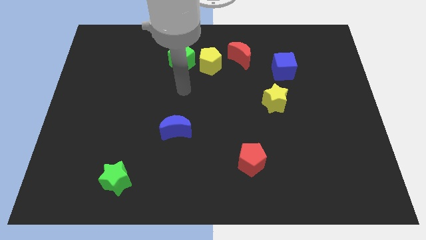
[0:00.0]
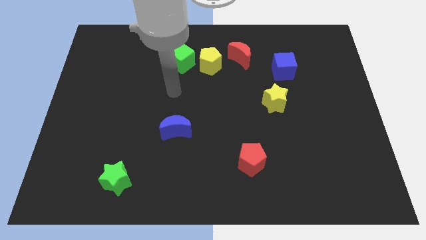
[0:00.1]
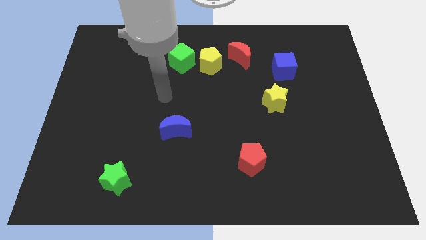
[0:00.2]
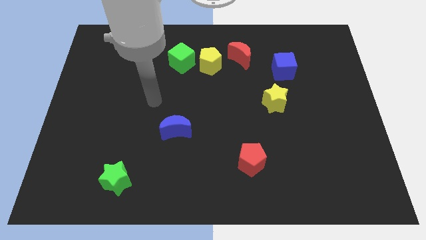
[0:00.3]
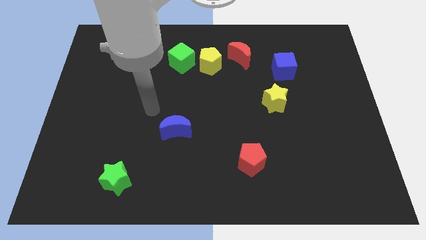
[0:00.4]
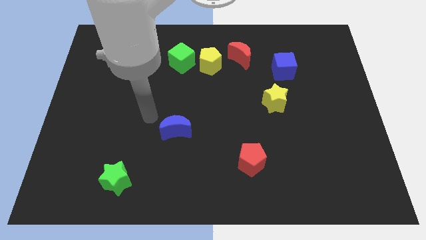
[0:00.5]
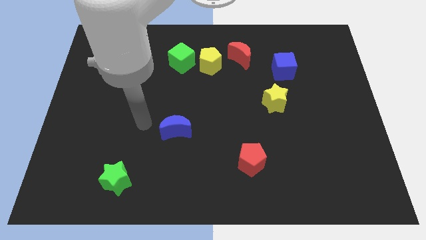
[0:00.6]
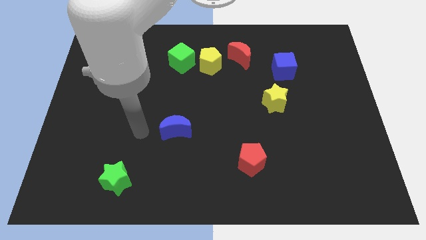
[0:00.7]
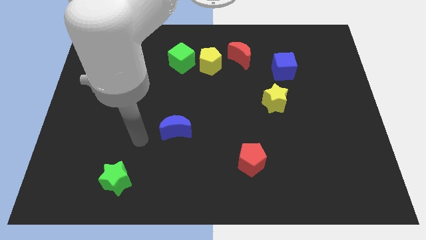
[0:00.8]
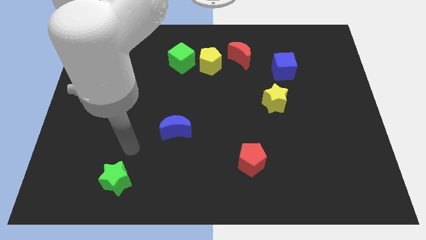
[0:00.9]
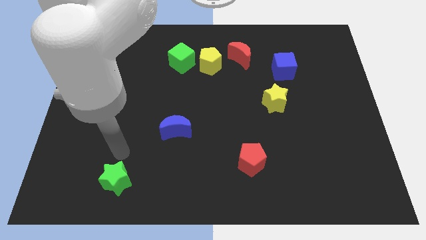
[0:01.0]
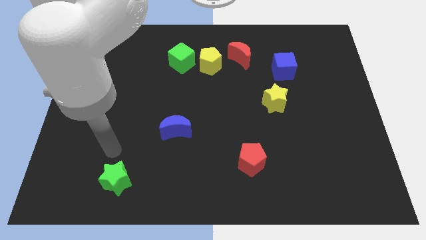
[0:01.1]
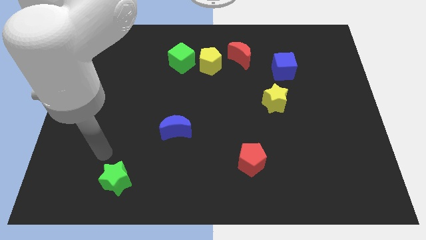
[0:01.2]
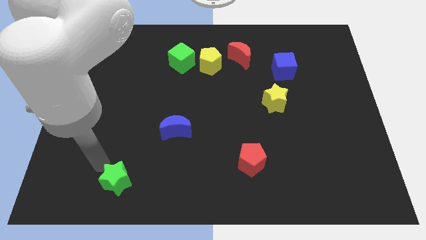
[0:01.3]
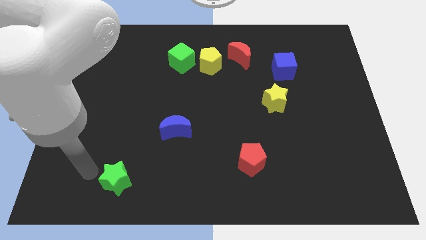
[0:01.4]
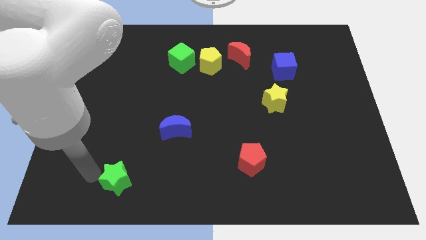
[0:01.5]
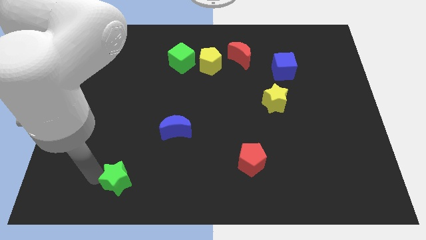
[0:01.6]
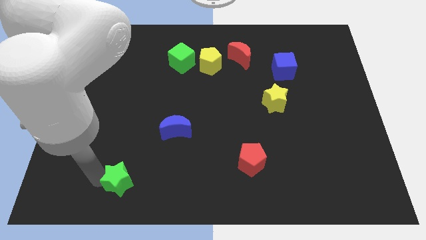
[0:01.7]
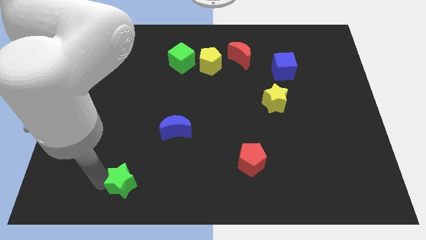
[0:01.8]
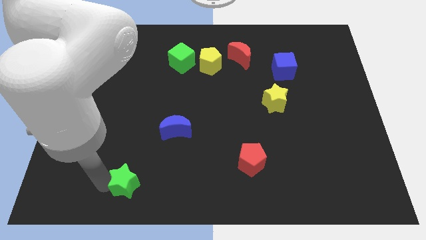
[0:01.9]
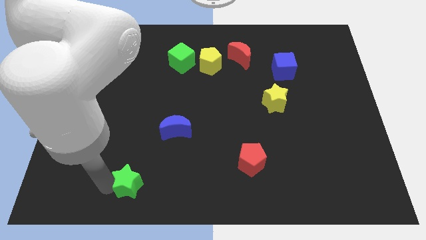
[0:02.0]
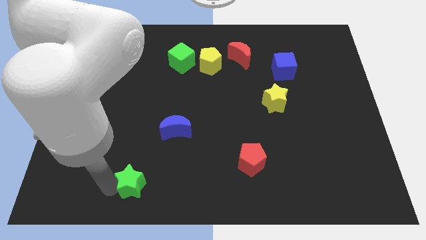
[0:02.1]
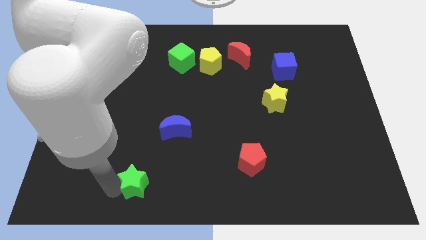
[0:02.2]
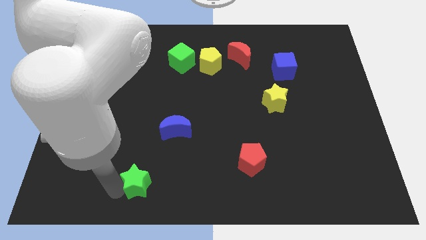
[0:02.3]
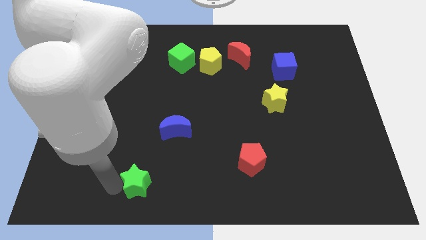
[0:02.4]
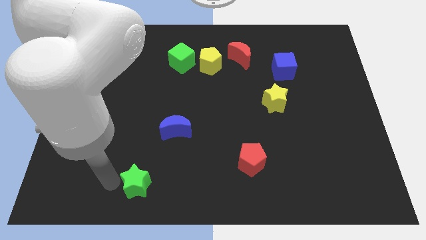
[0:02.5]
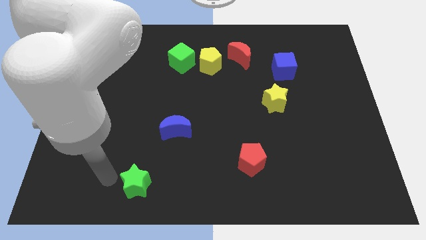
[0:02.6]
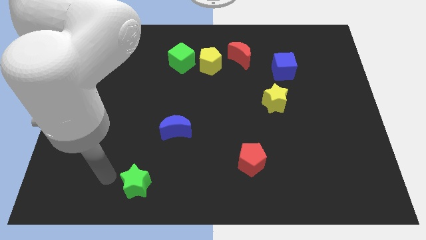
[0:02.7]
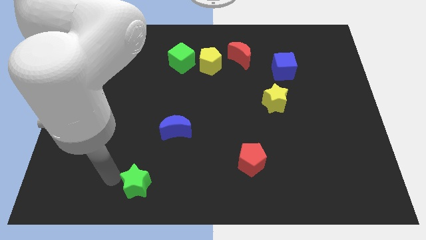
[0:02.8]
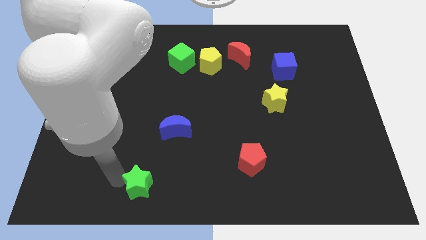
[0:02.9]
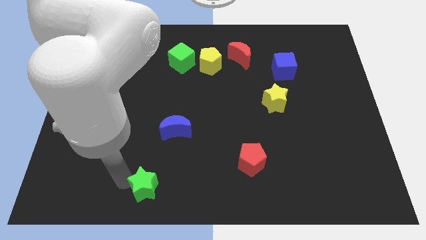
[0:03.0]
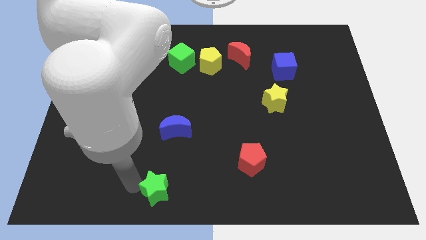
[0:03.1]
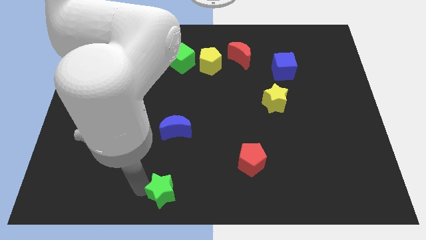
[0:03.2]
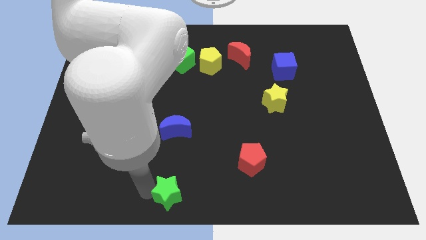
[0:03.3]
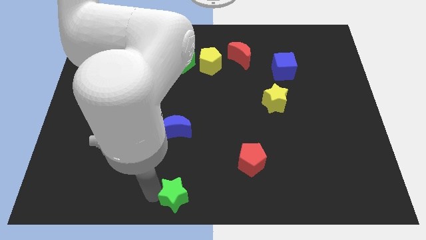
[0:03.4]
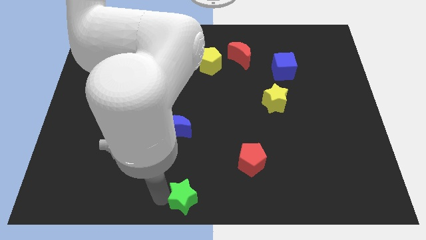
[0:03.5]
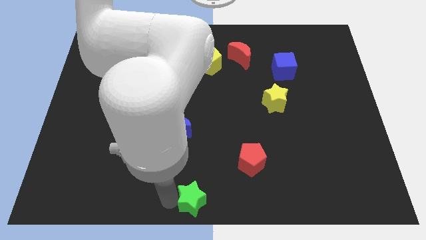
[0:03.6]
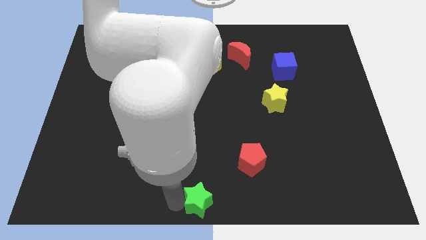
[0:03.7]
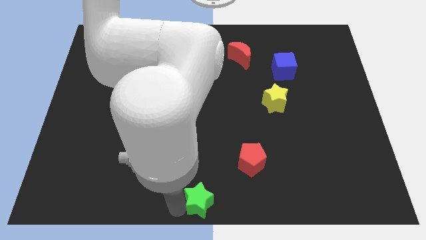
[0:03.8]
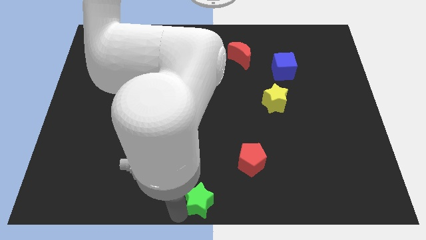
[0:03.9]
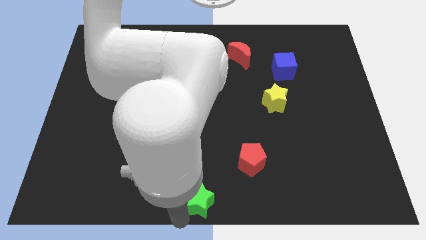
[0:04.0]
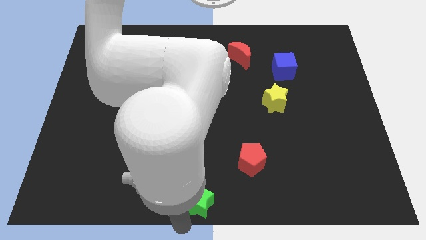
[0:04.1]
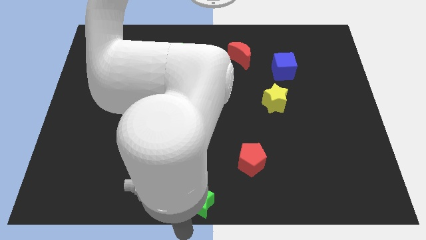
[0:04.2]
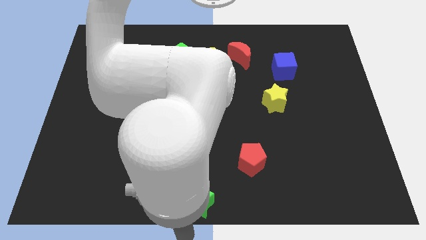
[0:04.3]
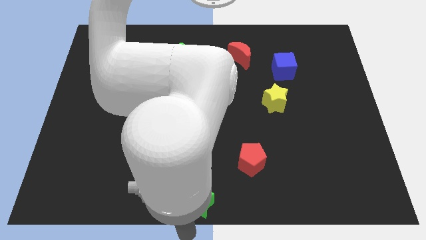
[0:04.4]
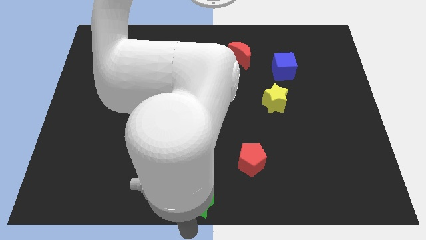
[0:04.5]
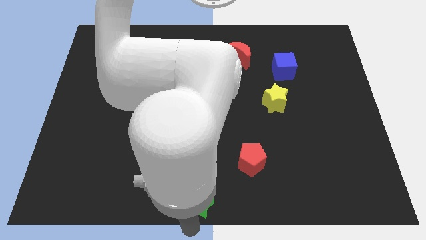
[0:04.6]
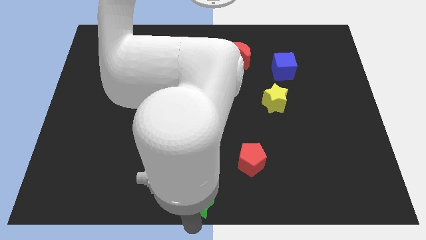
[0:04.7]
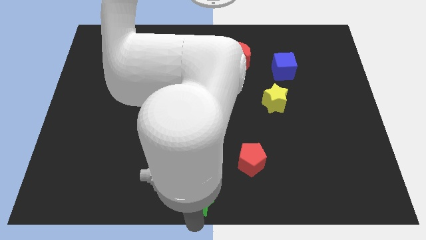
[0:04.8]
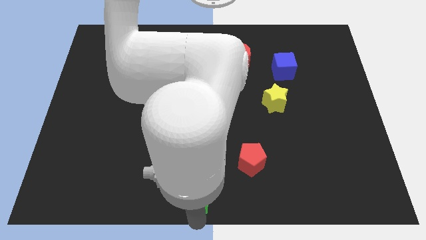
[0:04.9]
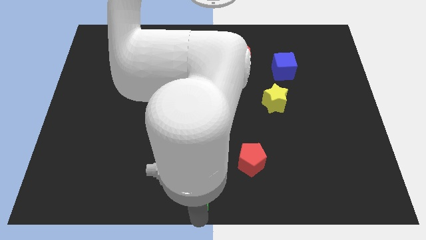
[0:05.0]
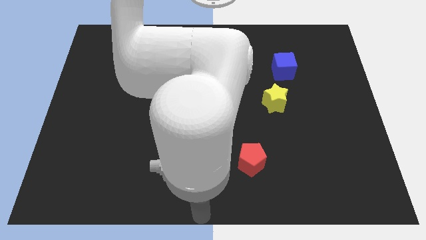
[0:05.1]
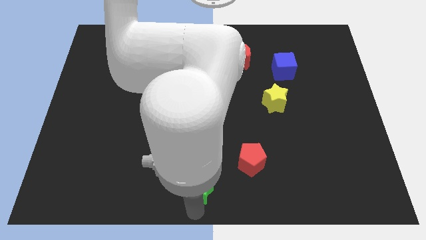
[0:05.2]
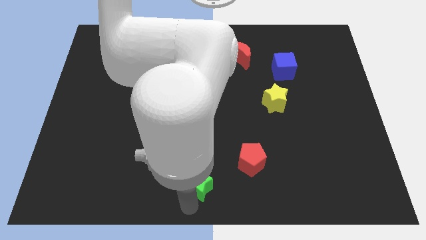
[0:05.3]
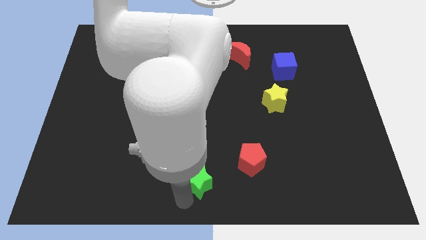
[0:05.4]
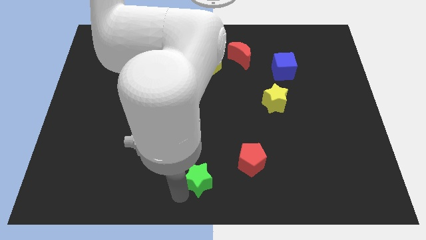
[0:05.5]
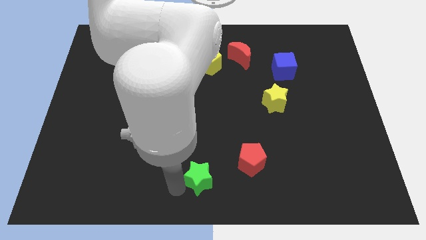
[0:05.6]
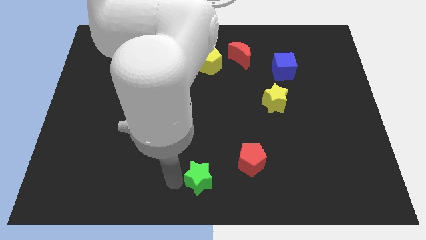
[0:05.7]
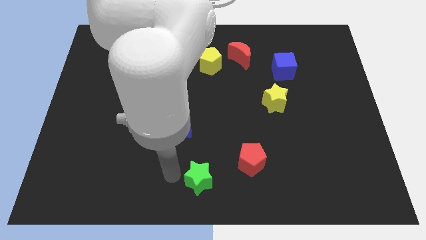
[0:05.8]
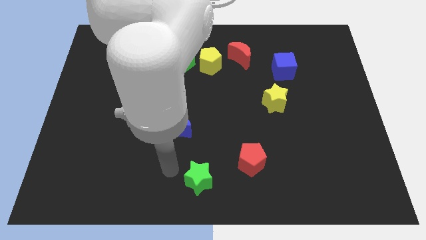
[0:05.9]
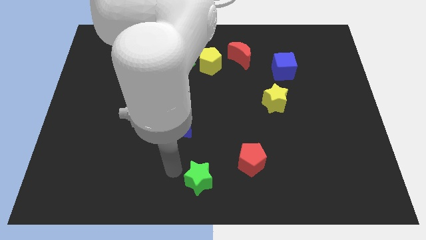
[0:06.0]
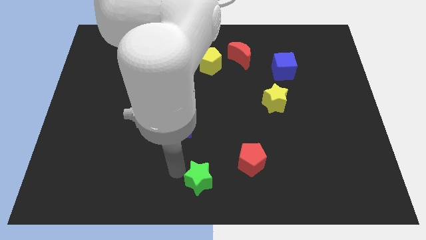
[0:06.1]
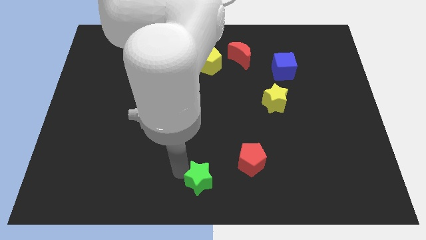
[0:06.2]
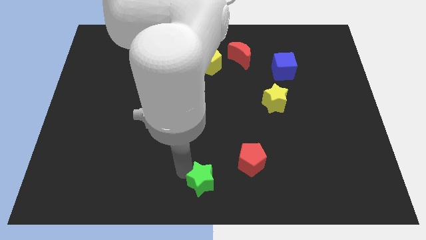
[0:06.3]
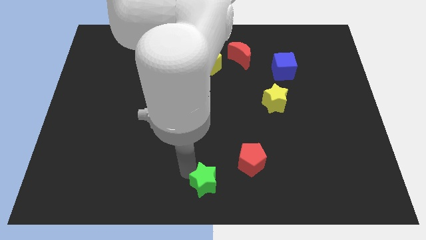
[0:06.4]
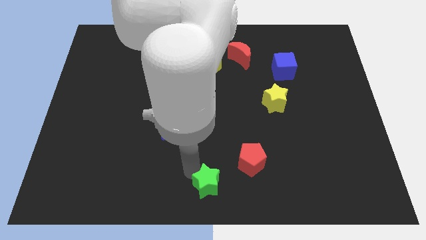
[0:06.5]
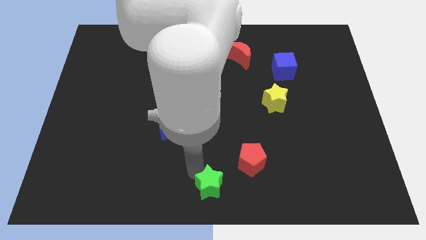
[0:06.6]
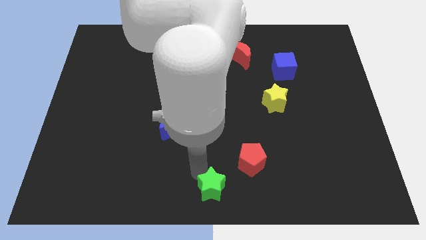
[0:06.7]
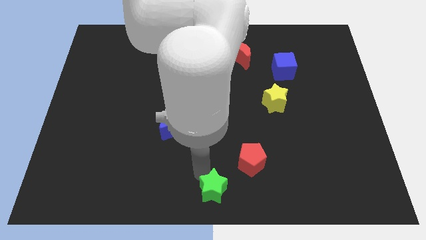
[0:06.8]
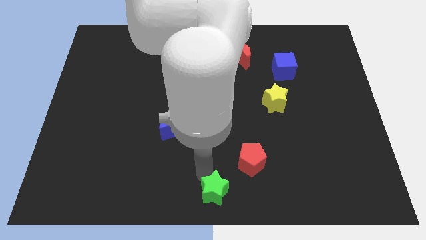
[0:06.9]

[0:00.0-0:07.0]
push the green star to the right

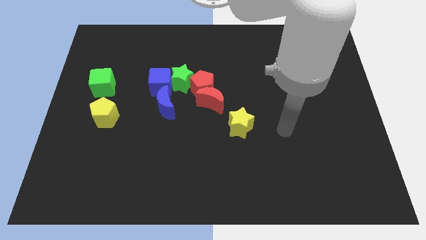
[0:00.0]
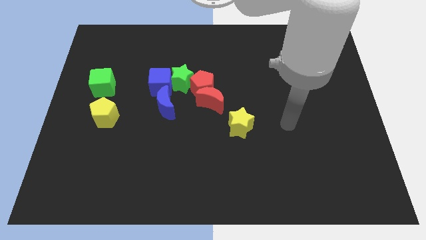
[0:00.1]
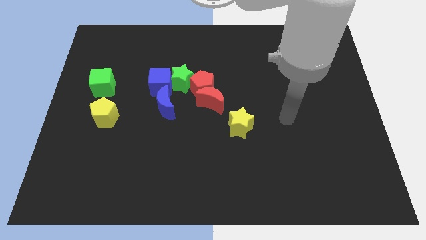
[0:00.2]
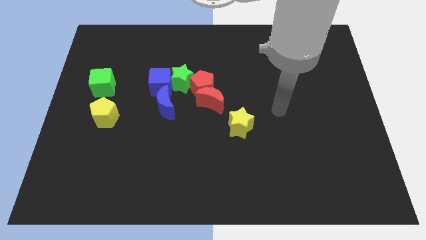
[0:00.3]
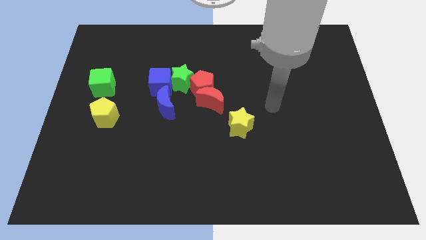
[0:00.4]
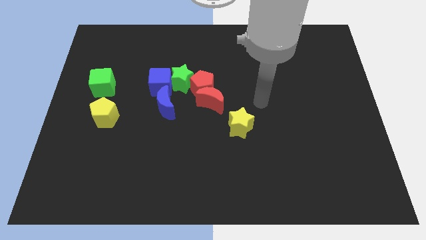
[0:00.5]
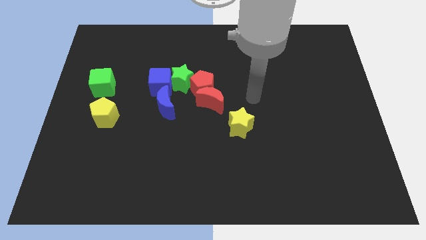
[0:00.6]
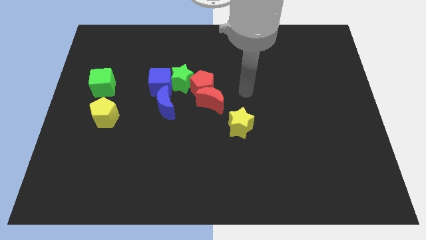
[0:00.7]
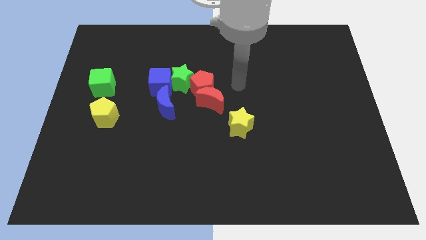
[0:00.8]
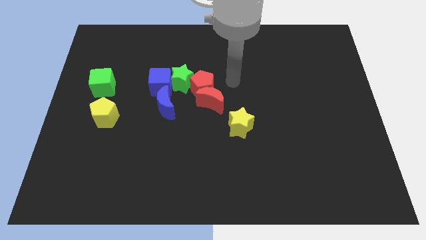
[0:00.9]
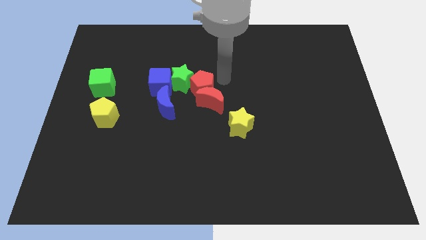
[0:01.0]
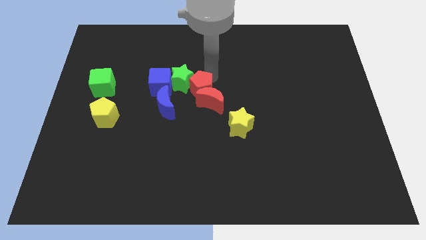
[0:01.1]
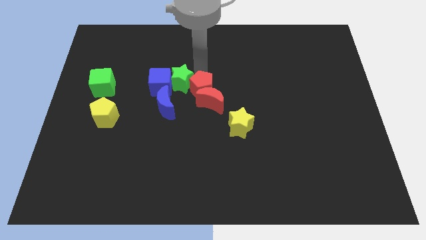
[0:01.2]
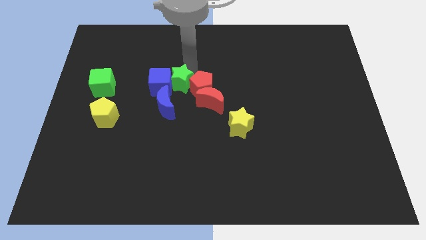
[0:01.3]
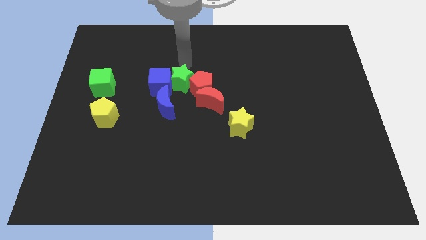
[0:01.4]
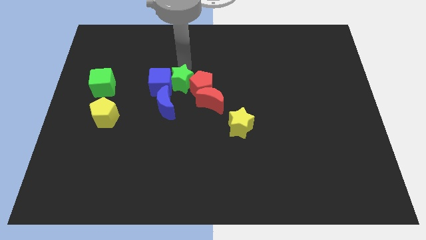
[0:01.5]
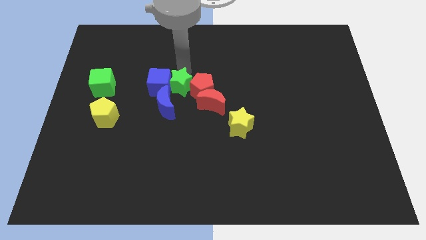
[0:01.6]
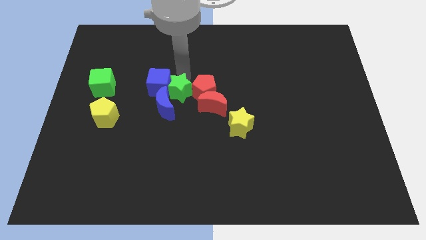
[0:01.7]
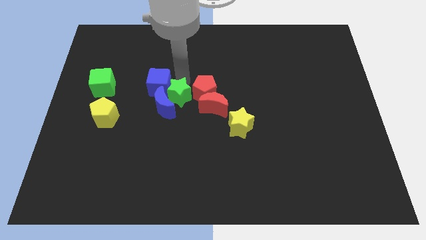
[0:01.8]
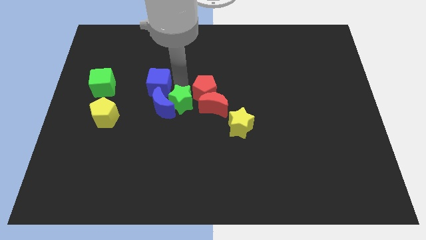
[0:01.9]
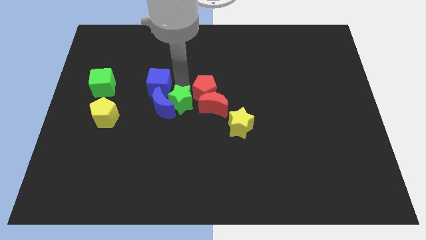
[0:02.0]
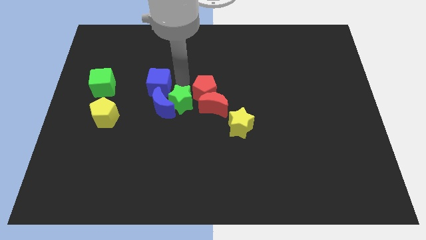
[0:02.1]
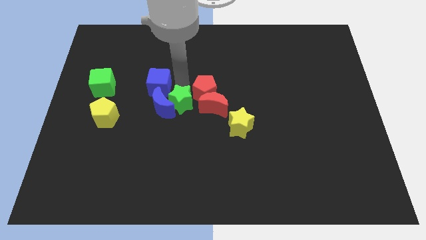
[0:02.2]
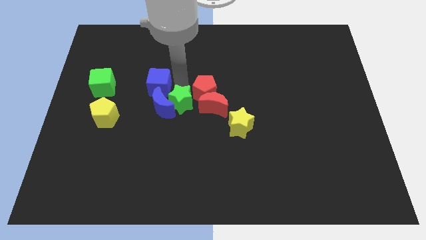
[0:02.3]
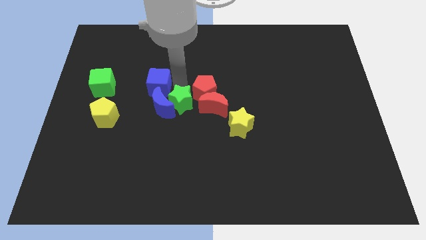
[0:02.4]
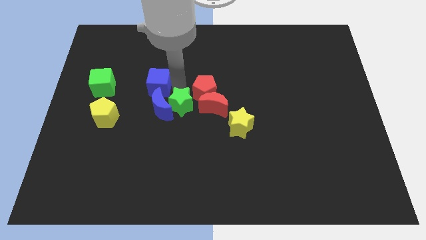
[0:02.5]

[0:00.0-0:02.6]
slightly move the green star downwards
